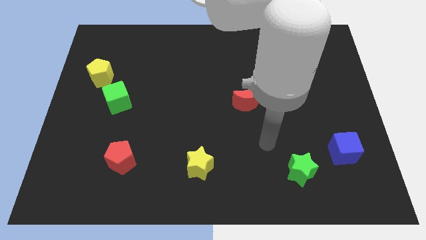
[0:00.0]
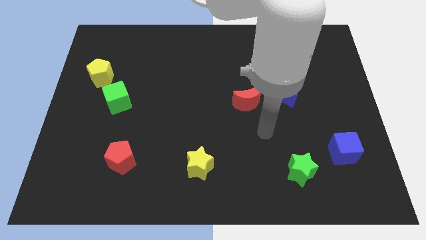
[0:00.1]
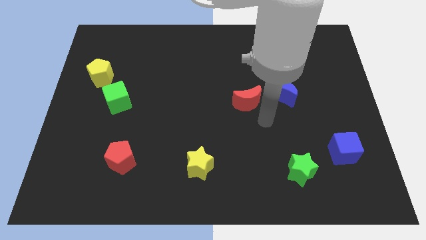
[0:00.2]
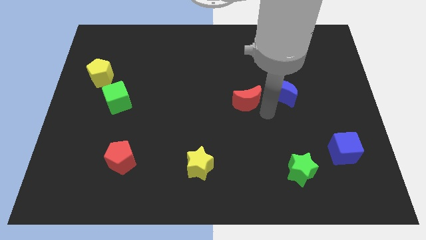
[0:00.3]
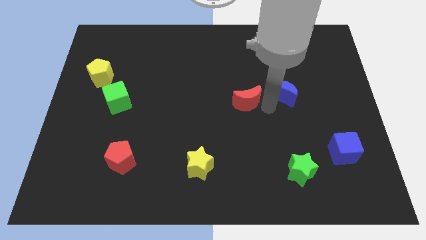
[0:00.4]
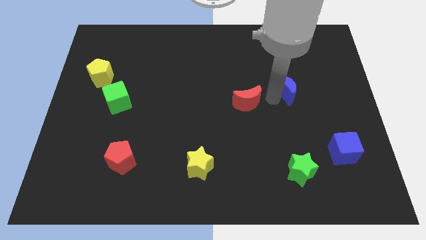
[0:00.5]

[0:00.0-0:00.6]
move the red moon away from the blue moon

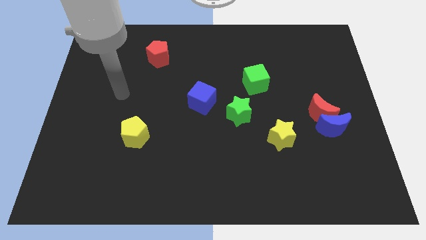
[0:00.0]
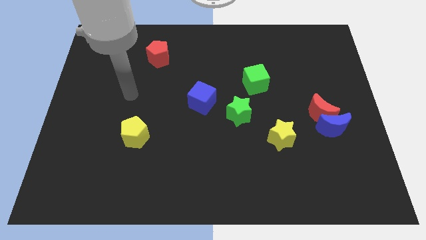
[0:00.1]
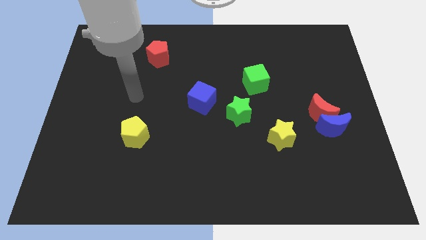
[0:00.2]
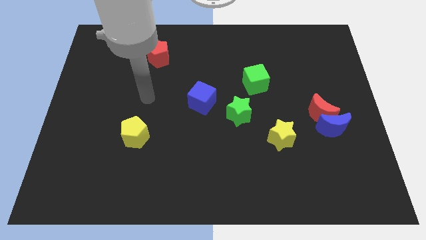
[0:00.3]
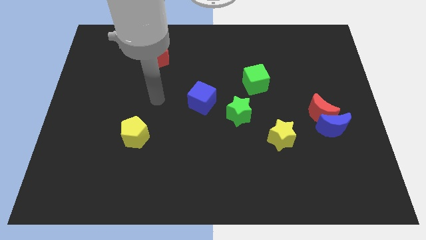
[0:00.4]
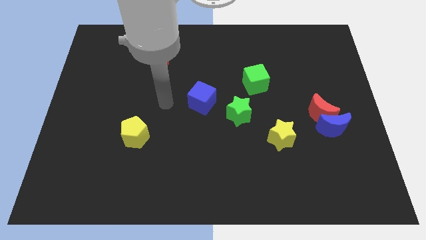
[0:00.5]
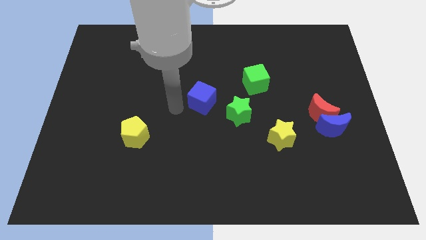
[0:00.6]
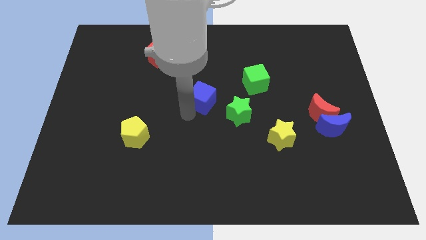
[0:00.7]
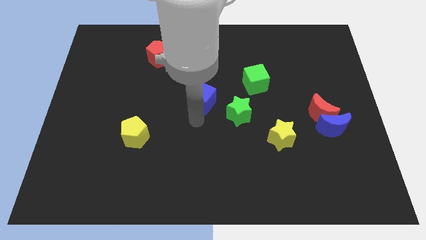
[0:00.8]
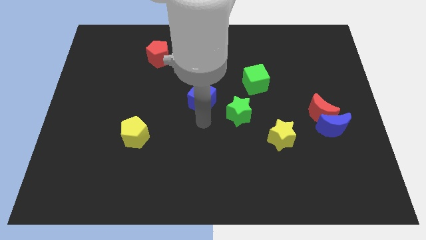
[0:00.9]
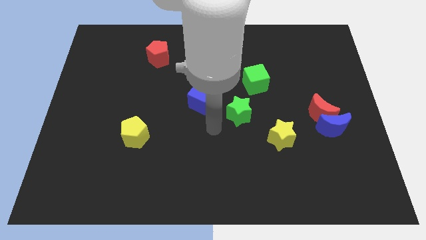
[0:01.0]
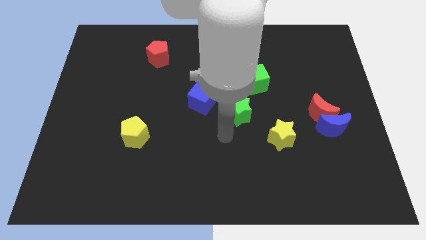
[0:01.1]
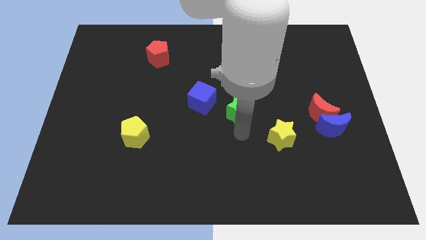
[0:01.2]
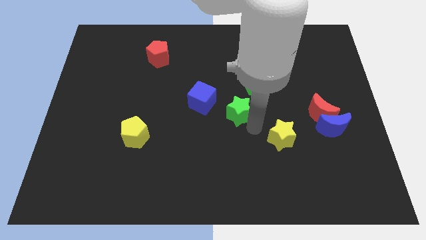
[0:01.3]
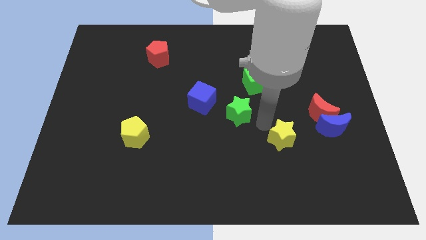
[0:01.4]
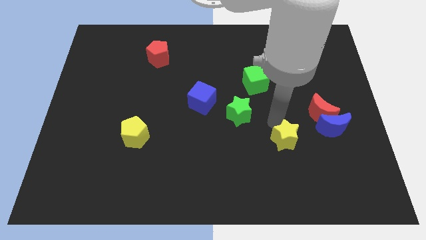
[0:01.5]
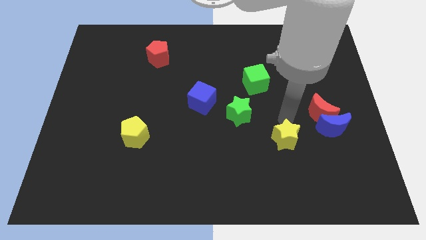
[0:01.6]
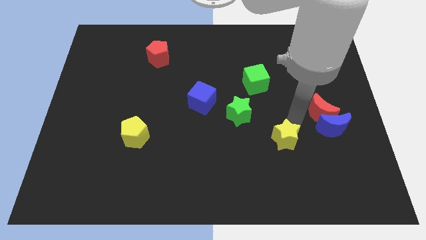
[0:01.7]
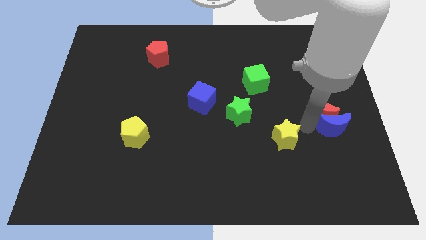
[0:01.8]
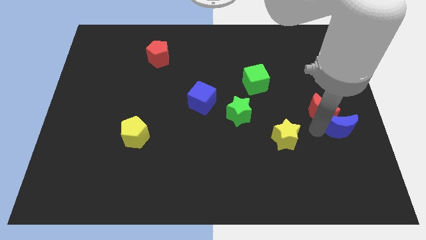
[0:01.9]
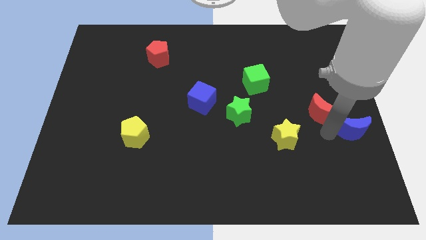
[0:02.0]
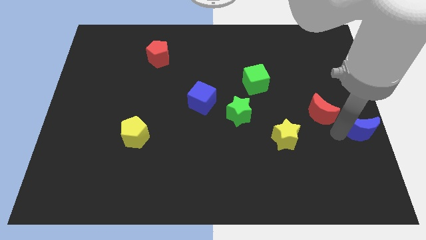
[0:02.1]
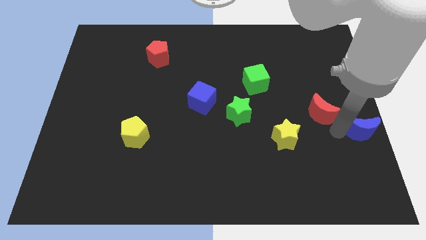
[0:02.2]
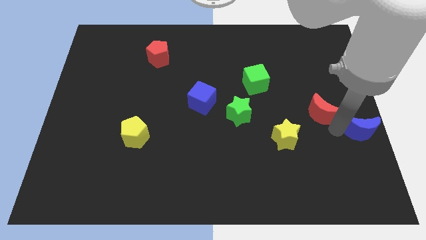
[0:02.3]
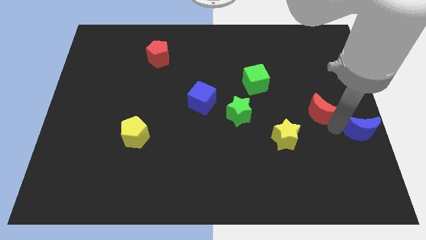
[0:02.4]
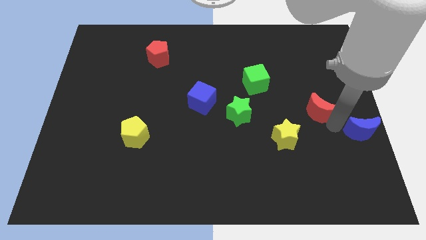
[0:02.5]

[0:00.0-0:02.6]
pull the red moon apart from the blue moon

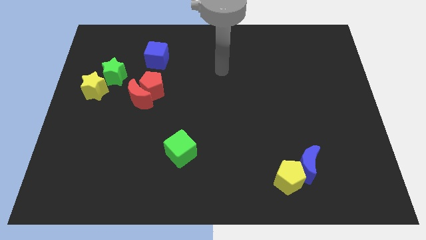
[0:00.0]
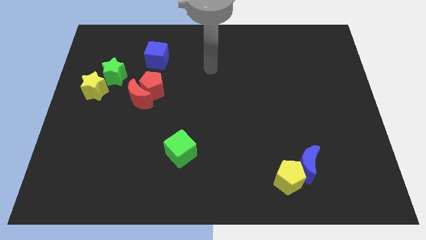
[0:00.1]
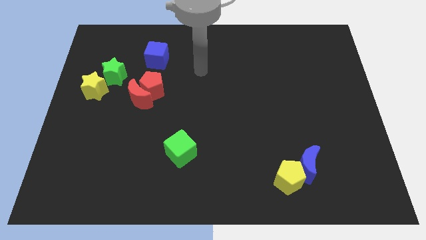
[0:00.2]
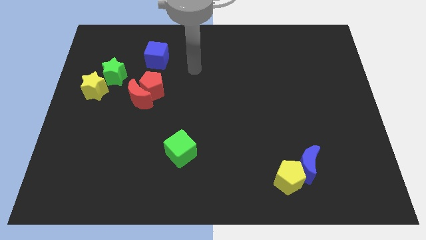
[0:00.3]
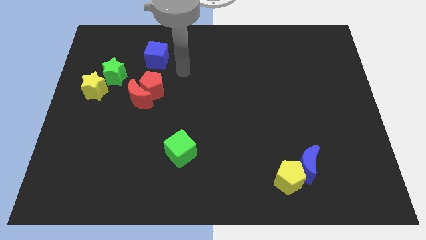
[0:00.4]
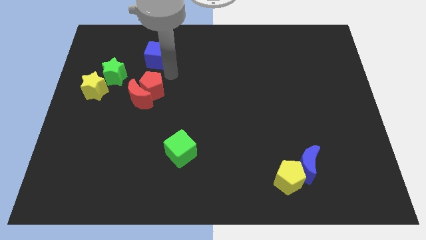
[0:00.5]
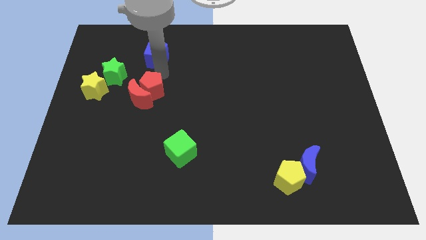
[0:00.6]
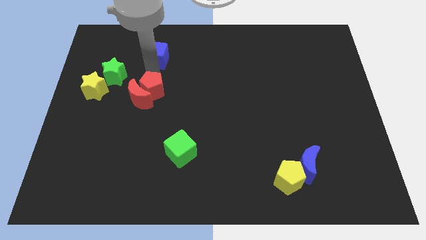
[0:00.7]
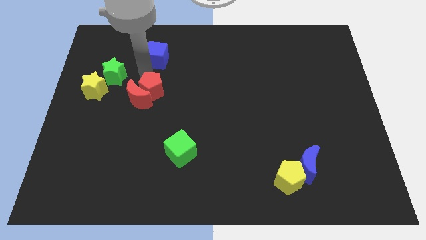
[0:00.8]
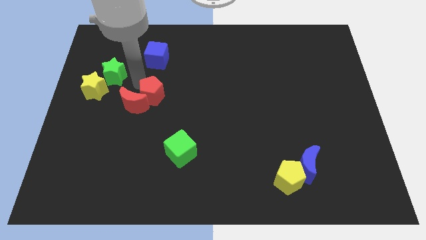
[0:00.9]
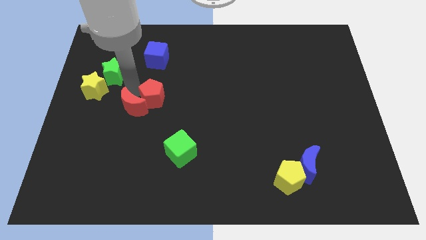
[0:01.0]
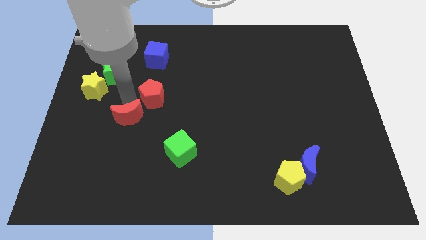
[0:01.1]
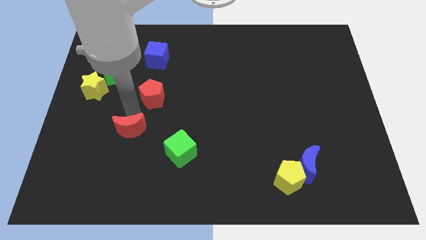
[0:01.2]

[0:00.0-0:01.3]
separate the red pentagon from the red moon

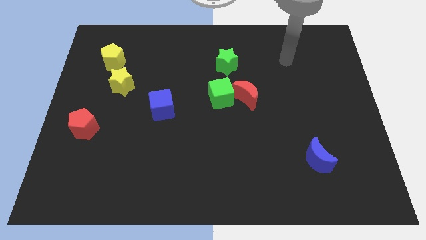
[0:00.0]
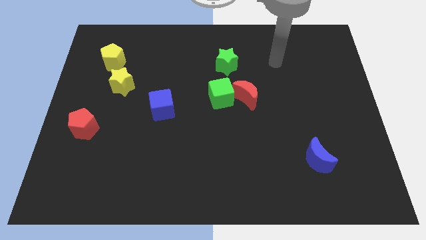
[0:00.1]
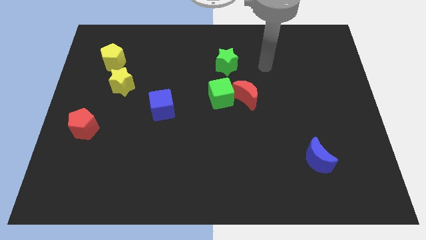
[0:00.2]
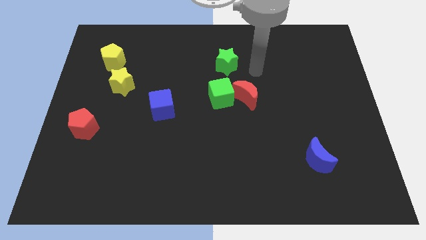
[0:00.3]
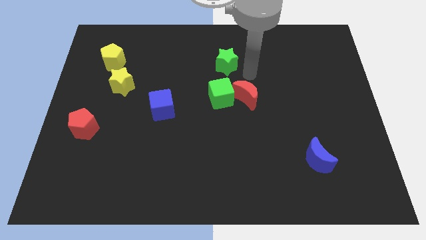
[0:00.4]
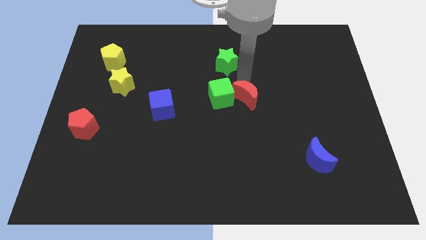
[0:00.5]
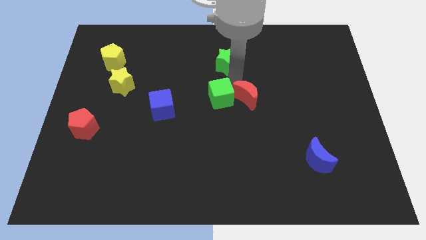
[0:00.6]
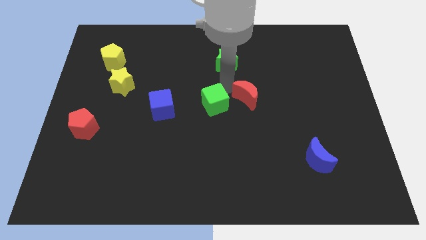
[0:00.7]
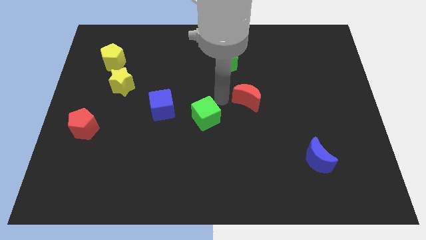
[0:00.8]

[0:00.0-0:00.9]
separate the red moon from the green cube

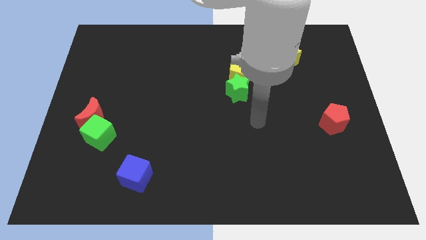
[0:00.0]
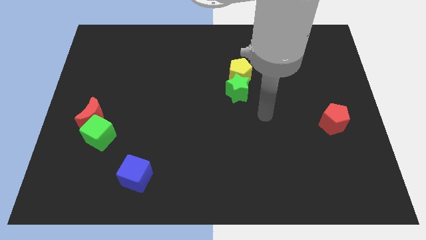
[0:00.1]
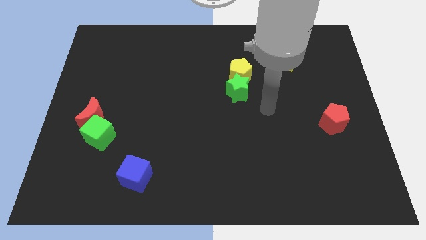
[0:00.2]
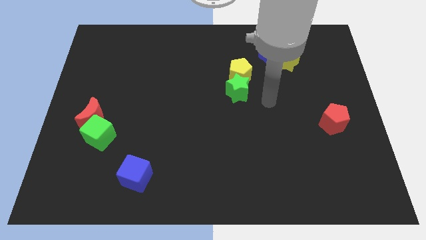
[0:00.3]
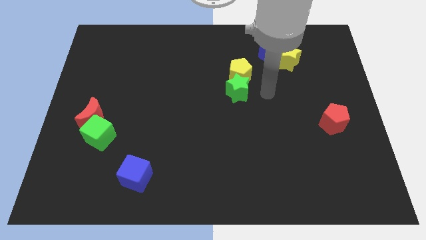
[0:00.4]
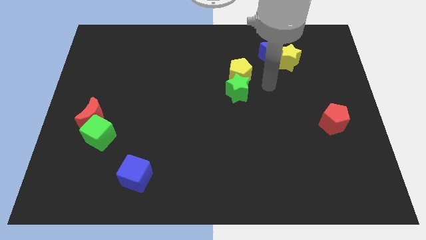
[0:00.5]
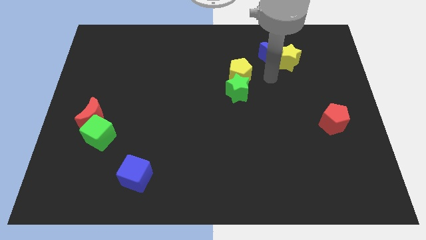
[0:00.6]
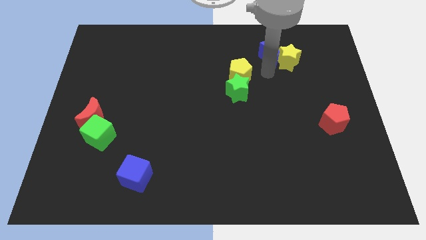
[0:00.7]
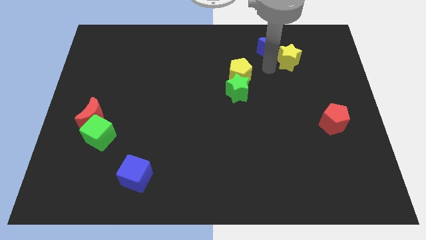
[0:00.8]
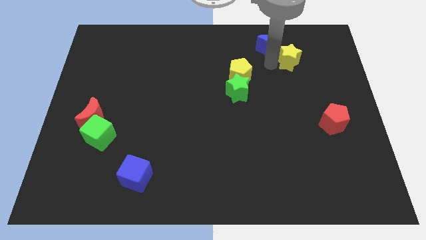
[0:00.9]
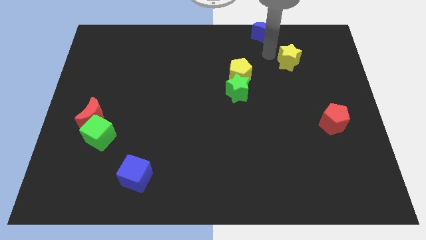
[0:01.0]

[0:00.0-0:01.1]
move the yellow star away from the blue moon

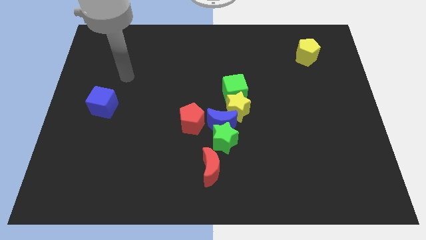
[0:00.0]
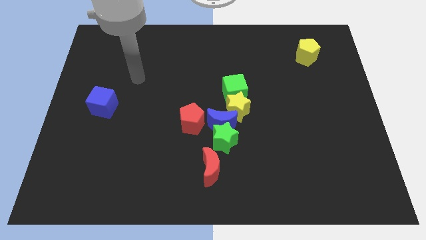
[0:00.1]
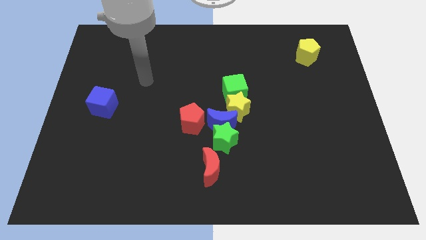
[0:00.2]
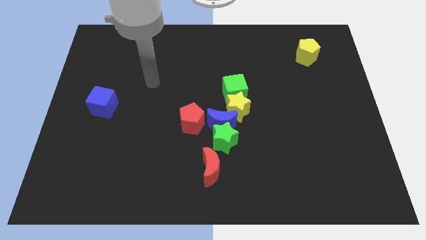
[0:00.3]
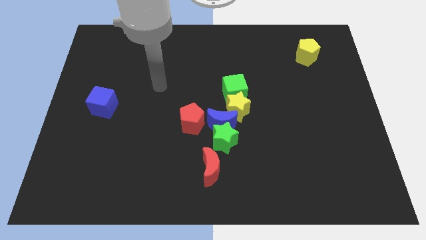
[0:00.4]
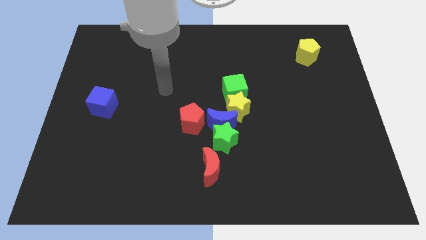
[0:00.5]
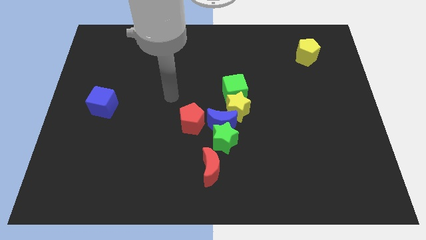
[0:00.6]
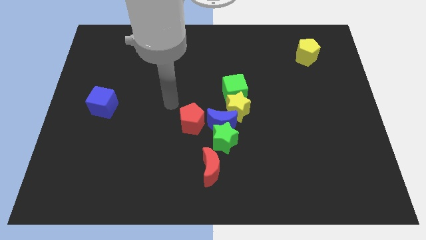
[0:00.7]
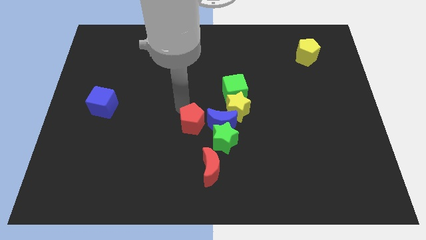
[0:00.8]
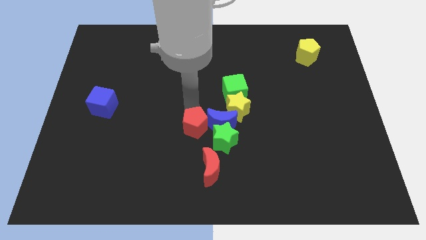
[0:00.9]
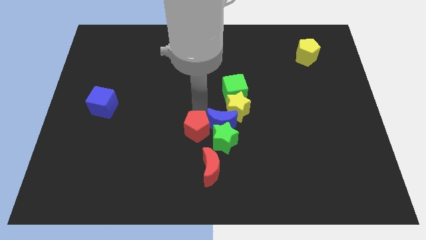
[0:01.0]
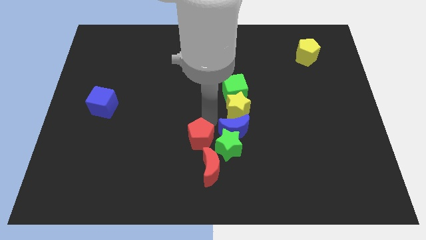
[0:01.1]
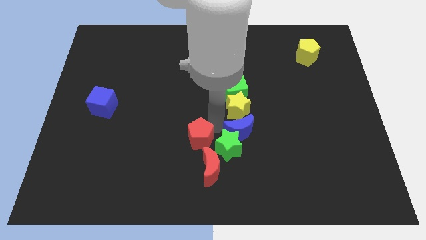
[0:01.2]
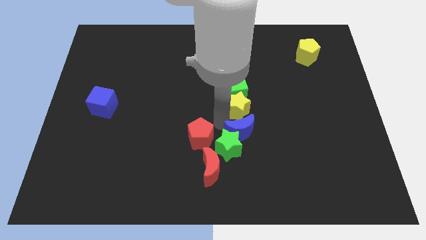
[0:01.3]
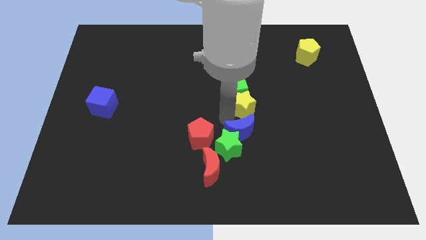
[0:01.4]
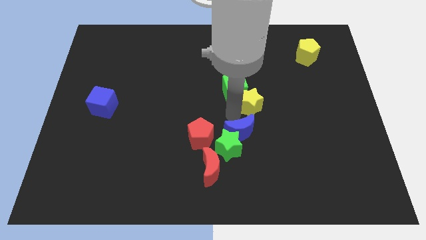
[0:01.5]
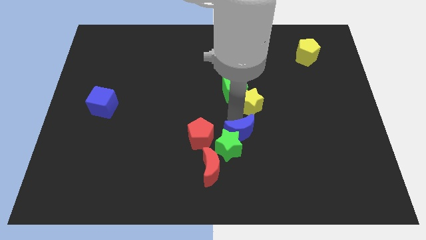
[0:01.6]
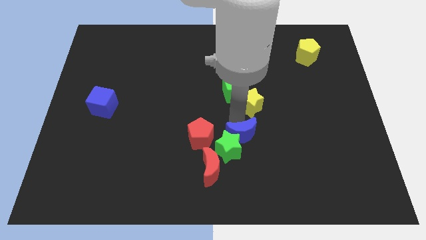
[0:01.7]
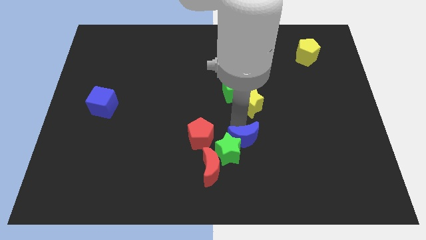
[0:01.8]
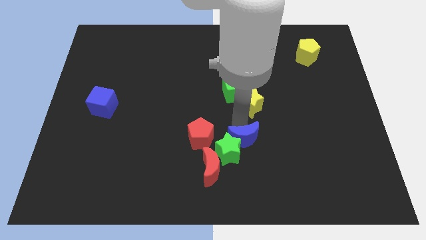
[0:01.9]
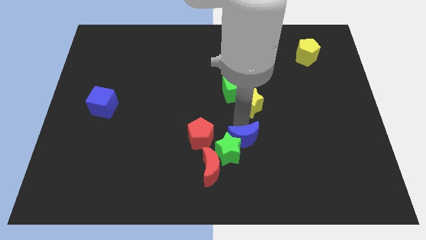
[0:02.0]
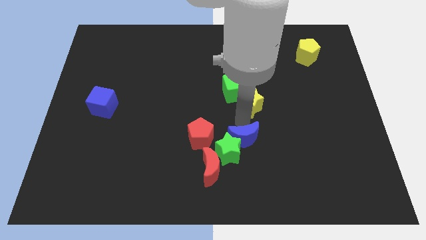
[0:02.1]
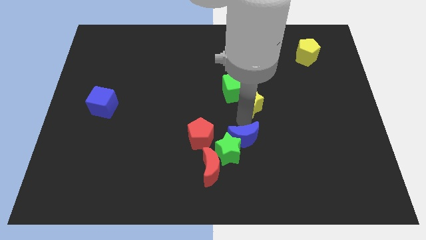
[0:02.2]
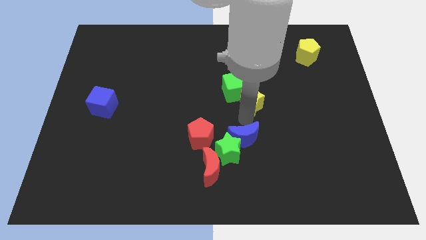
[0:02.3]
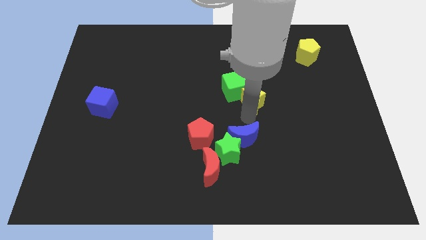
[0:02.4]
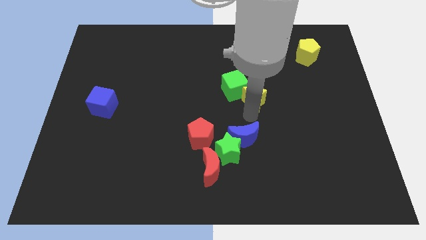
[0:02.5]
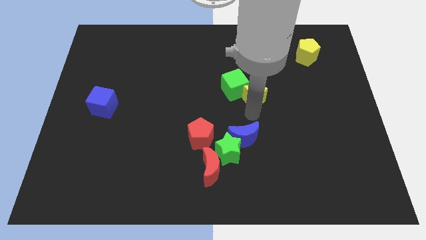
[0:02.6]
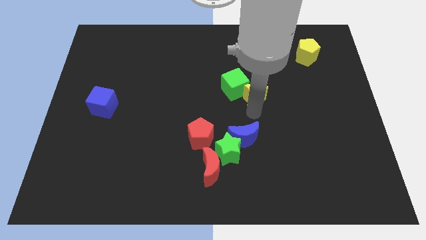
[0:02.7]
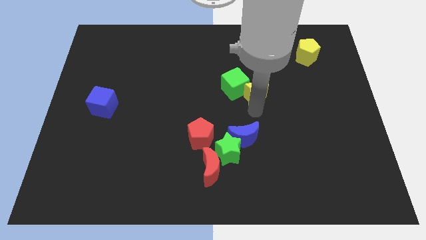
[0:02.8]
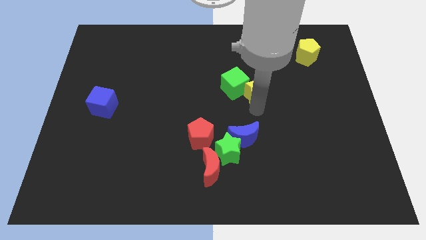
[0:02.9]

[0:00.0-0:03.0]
move the yellow star away from the blue moon, green cube, and green star

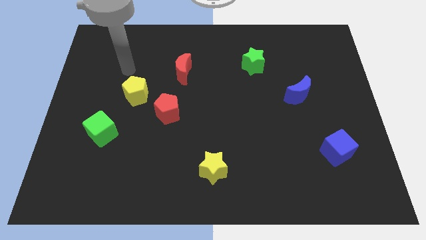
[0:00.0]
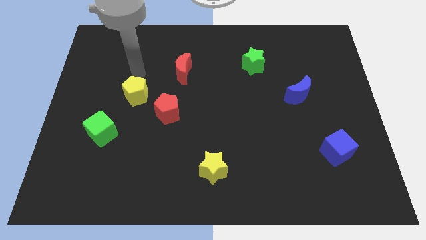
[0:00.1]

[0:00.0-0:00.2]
move the red pentagon away from the yellow pentagon
